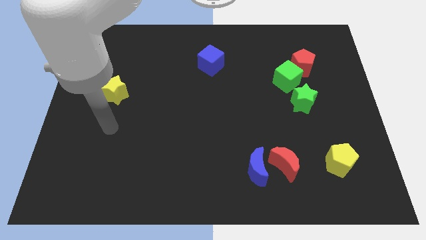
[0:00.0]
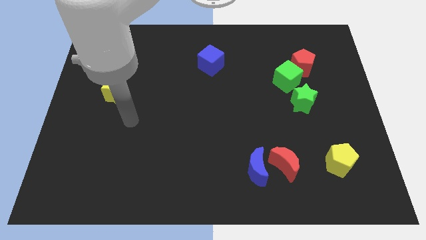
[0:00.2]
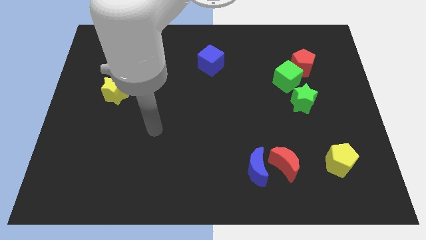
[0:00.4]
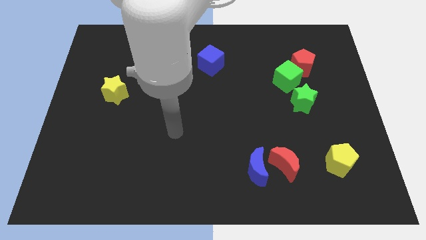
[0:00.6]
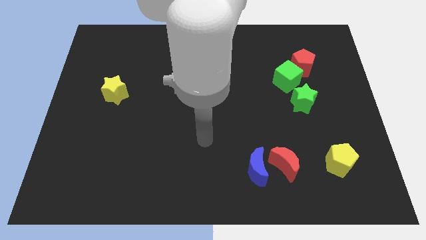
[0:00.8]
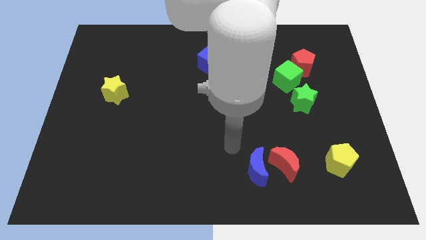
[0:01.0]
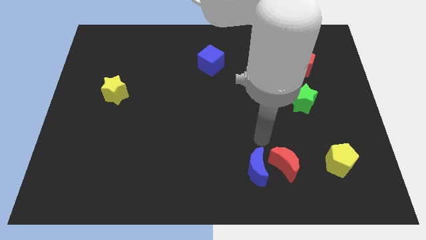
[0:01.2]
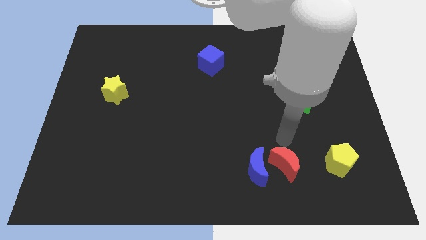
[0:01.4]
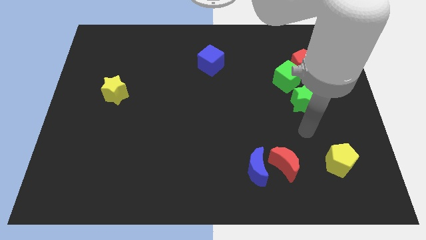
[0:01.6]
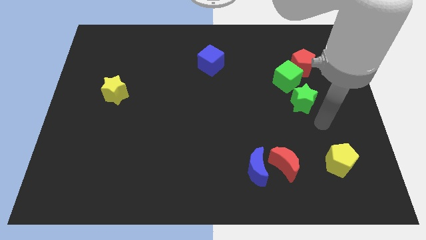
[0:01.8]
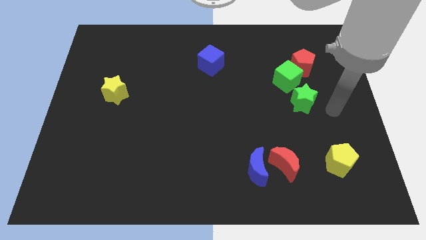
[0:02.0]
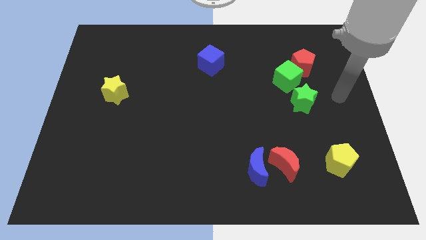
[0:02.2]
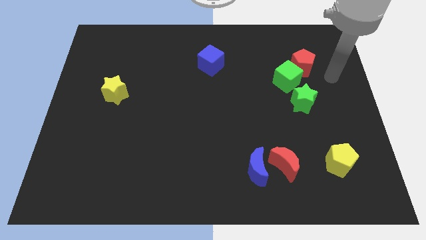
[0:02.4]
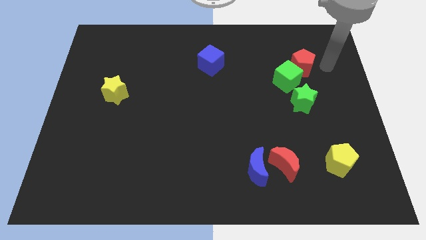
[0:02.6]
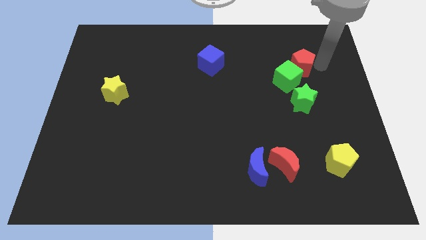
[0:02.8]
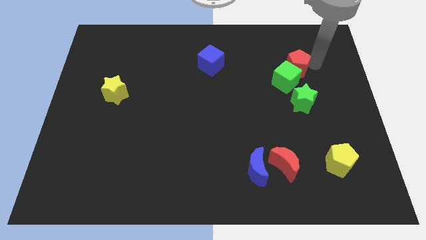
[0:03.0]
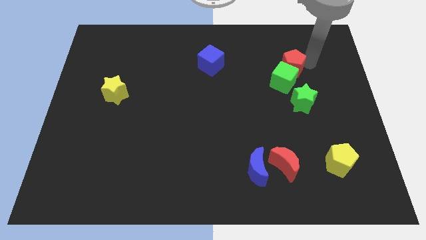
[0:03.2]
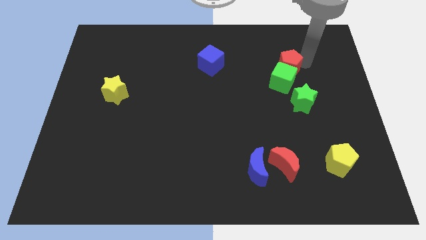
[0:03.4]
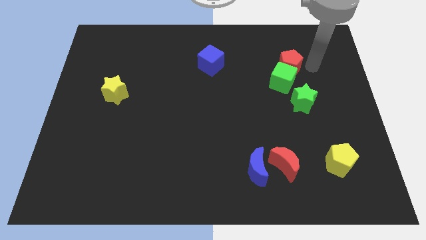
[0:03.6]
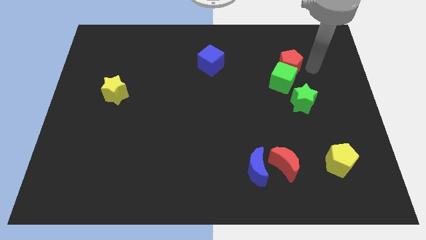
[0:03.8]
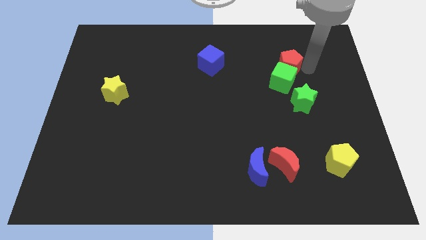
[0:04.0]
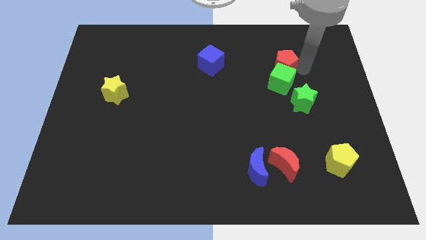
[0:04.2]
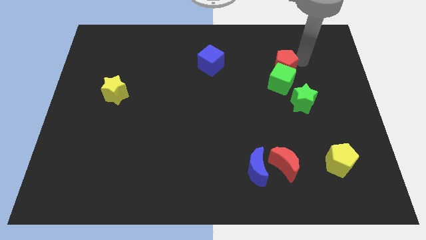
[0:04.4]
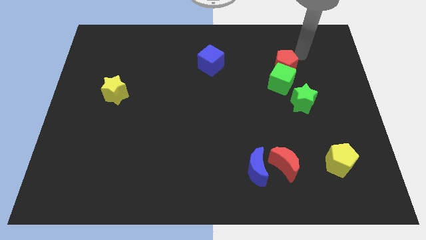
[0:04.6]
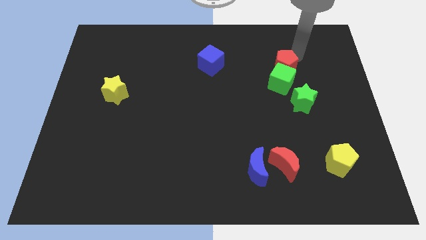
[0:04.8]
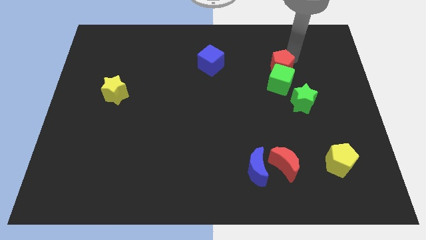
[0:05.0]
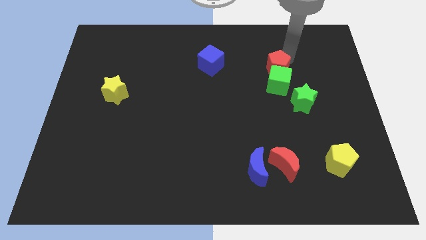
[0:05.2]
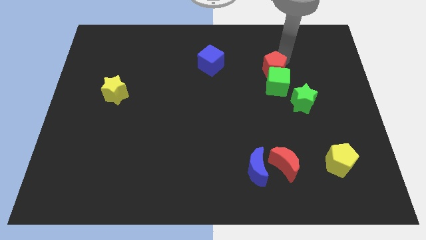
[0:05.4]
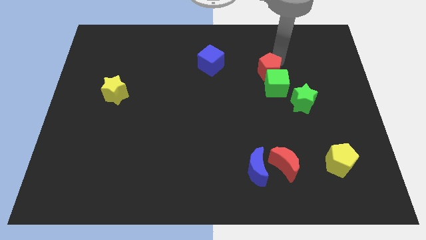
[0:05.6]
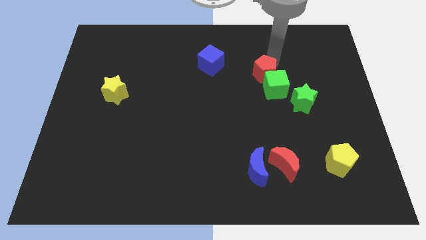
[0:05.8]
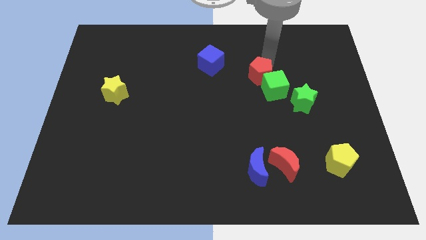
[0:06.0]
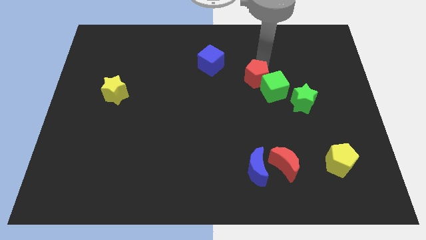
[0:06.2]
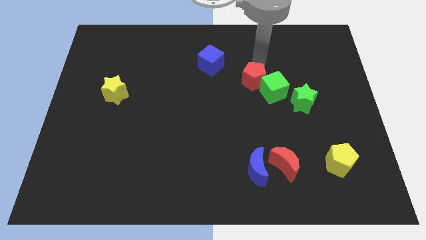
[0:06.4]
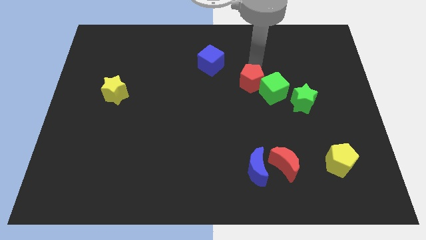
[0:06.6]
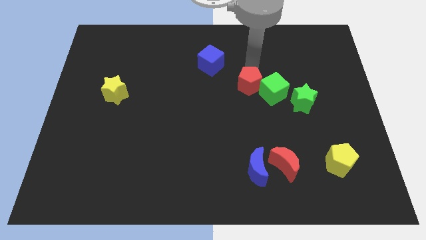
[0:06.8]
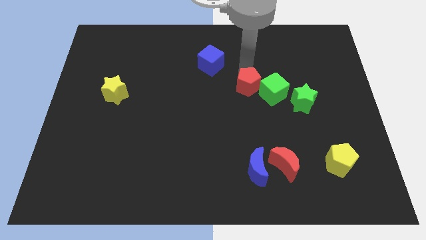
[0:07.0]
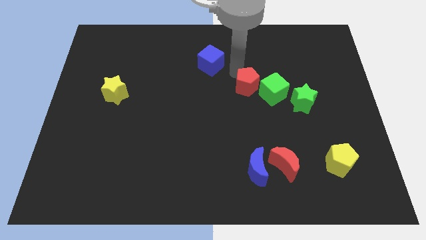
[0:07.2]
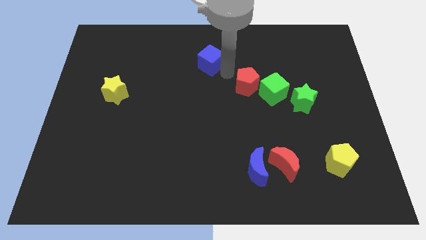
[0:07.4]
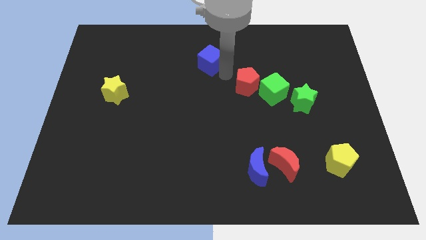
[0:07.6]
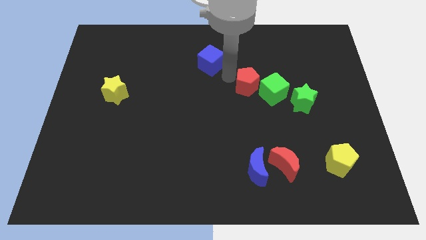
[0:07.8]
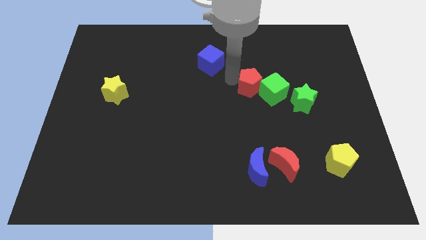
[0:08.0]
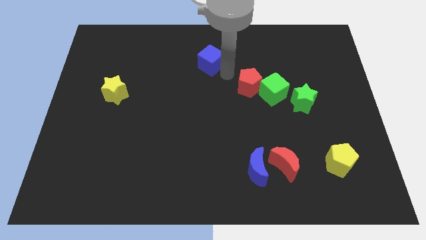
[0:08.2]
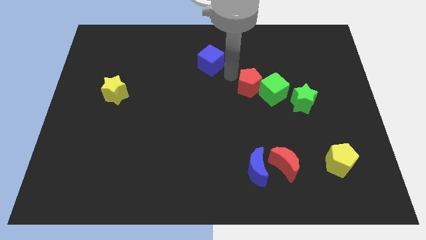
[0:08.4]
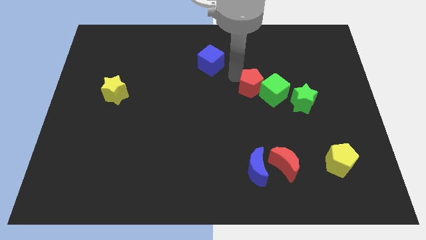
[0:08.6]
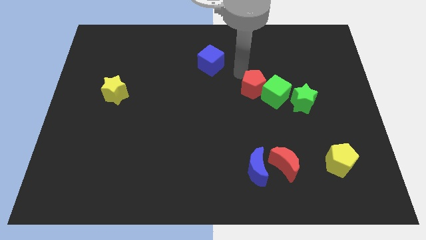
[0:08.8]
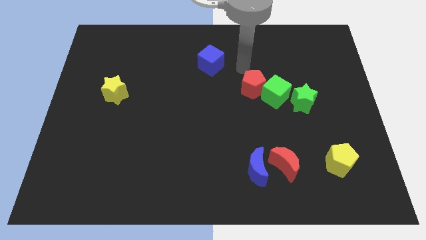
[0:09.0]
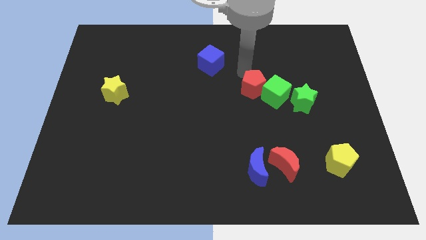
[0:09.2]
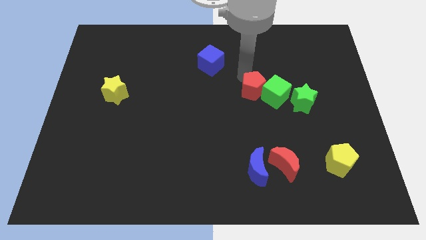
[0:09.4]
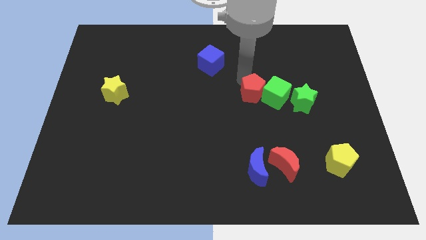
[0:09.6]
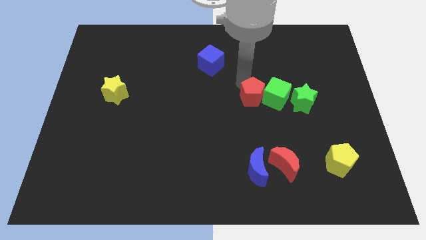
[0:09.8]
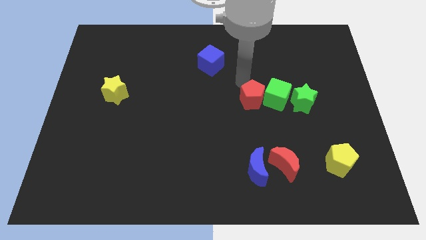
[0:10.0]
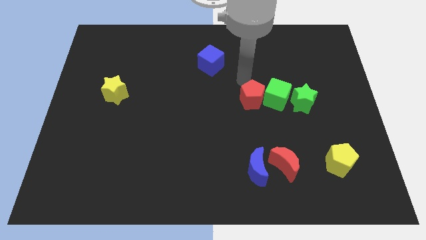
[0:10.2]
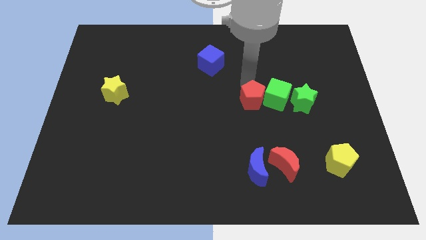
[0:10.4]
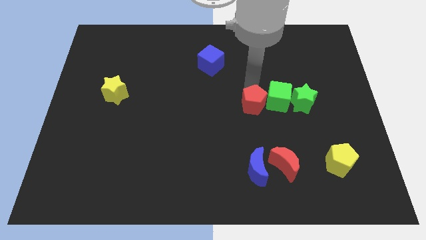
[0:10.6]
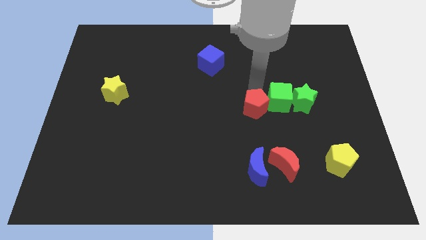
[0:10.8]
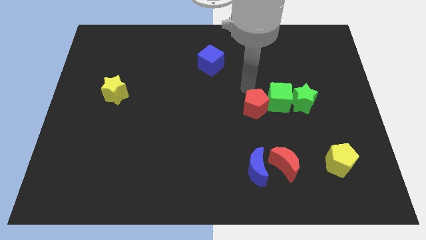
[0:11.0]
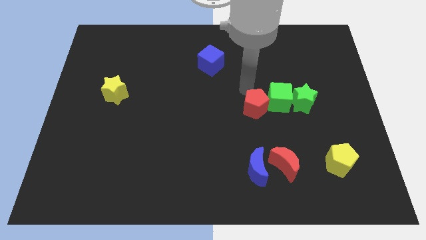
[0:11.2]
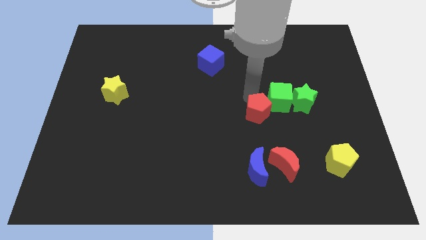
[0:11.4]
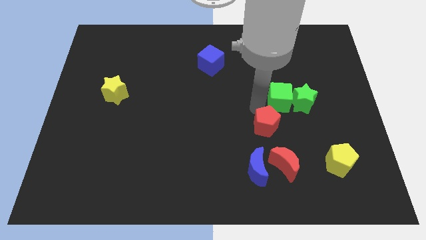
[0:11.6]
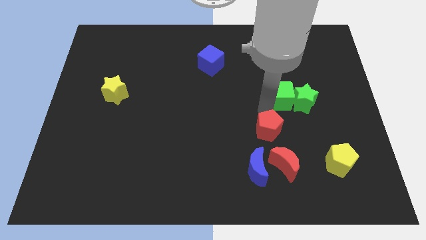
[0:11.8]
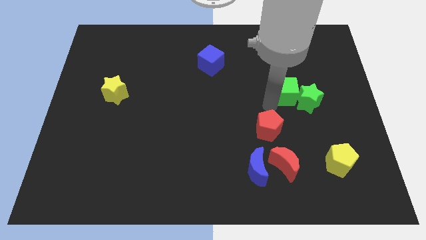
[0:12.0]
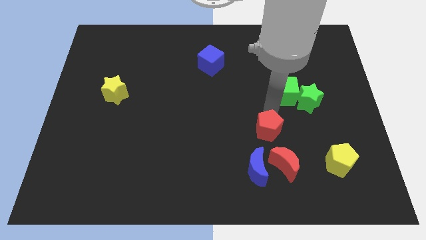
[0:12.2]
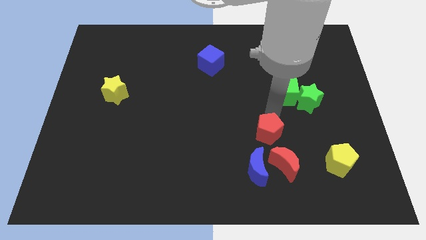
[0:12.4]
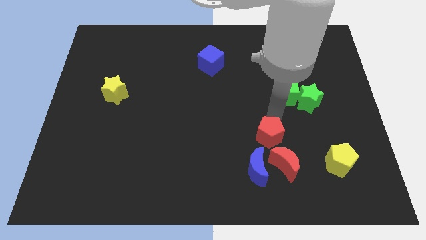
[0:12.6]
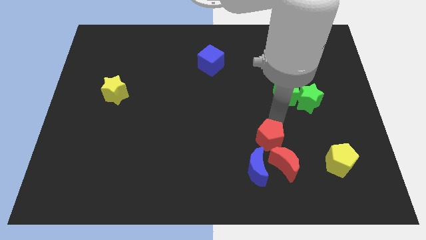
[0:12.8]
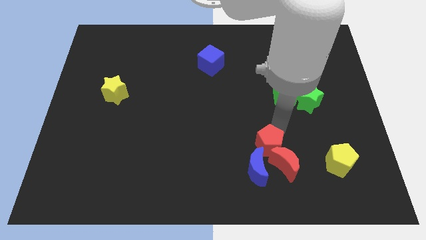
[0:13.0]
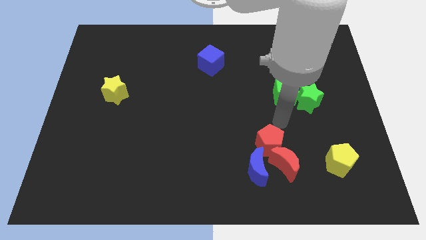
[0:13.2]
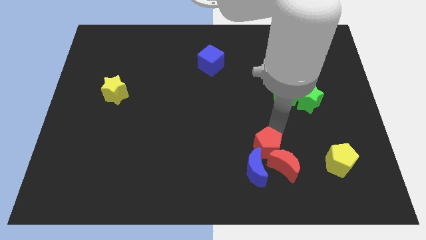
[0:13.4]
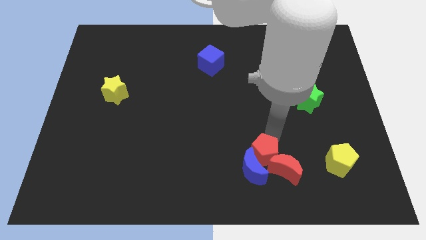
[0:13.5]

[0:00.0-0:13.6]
slide the red pentagon close to the blue moon
